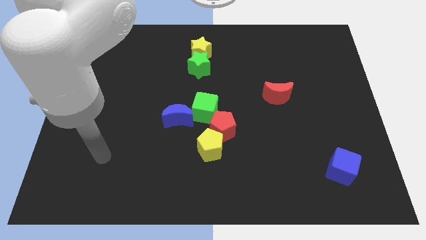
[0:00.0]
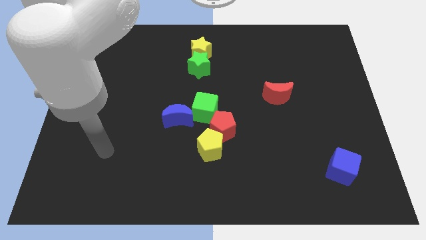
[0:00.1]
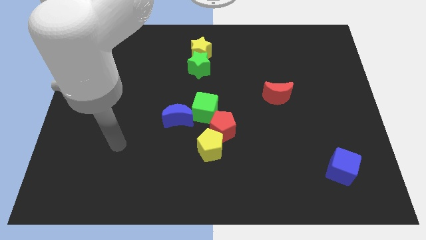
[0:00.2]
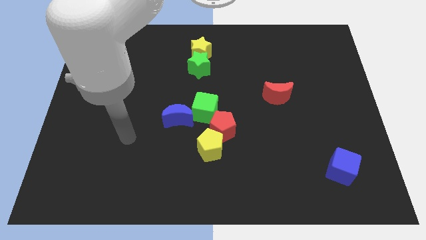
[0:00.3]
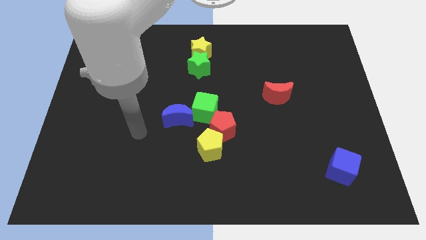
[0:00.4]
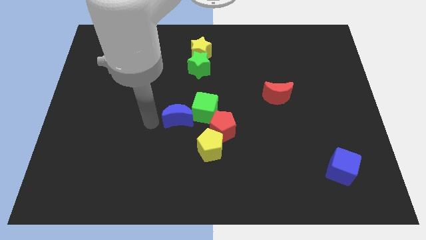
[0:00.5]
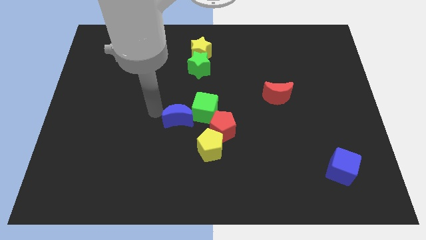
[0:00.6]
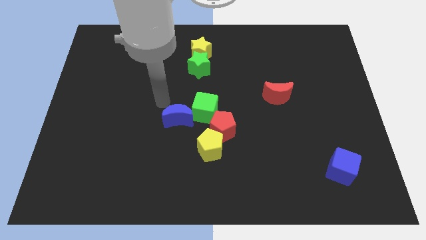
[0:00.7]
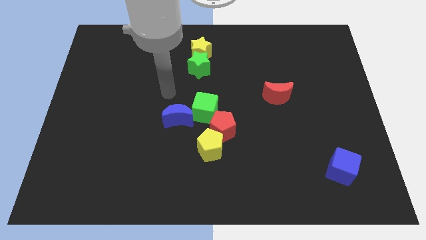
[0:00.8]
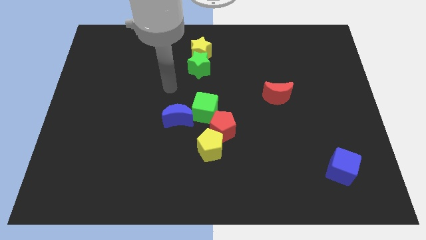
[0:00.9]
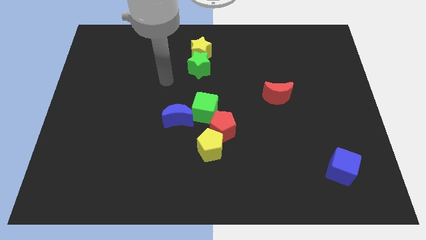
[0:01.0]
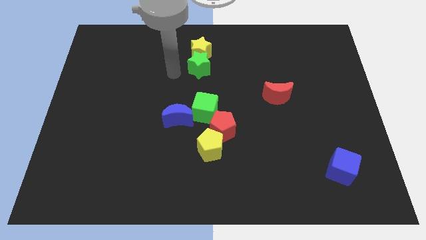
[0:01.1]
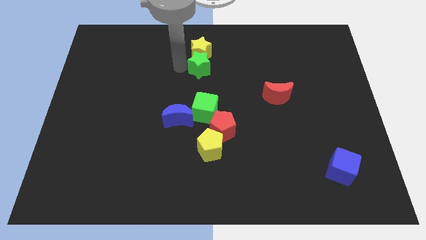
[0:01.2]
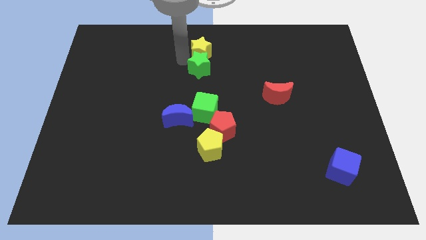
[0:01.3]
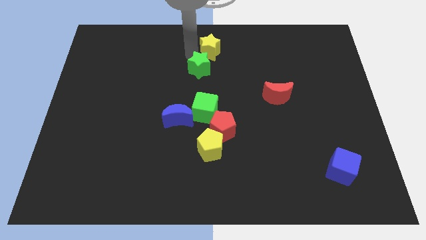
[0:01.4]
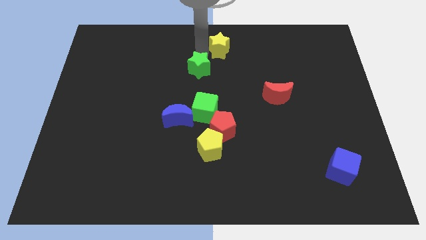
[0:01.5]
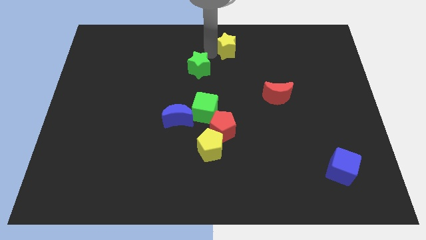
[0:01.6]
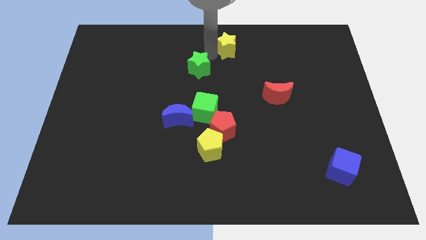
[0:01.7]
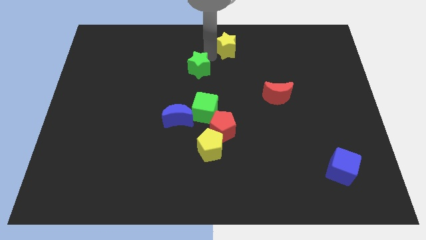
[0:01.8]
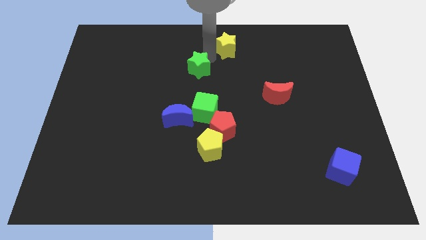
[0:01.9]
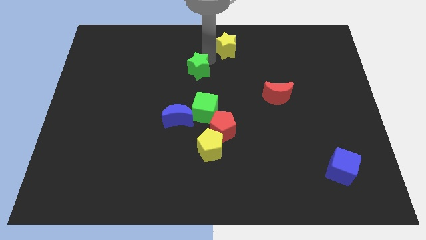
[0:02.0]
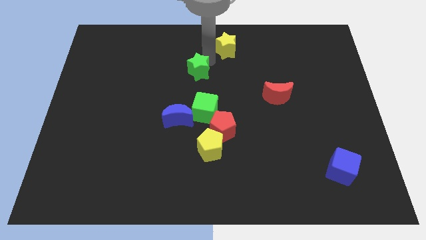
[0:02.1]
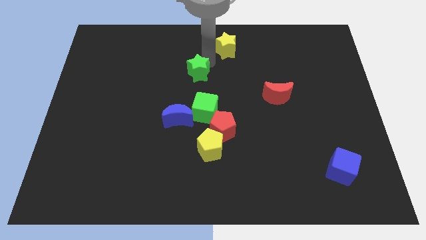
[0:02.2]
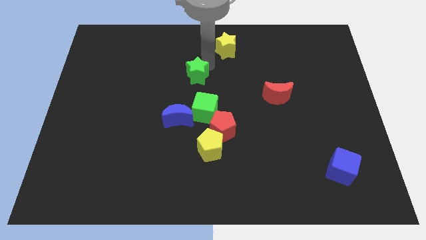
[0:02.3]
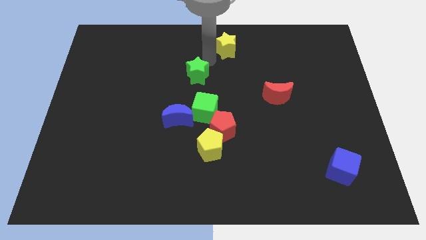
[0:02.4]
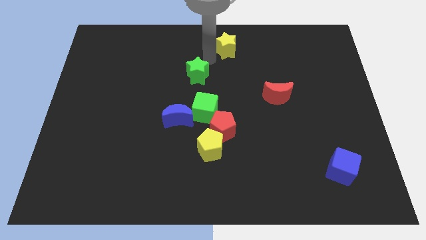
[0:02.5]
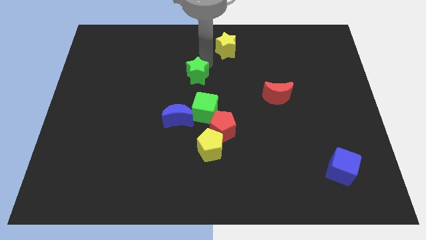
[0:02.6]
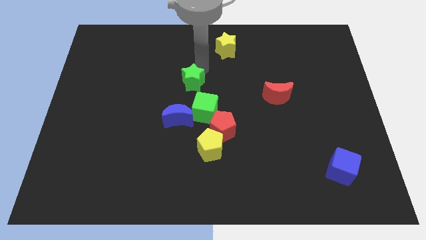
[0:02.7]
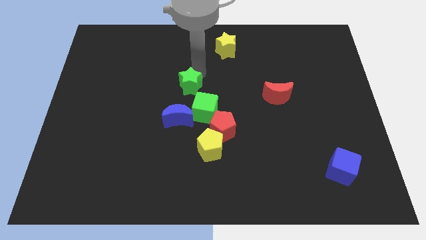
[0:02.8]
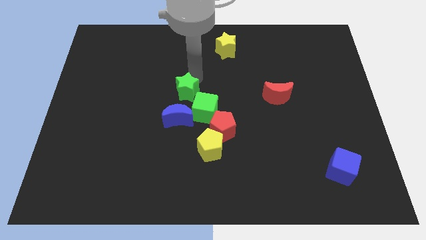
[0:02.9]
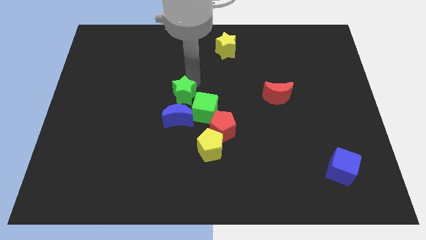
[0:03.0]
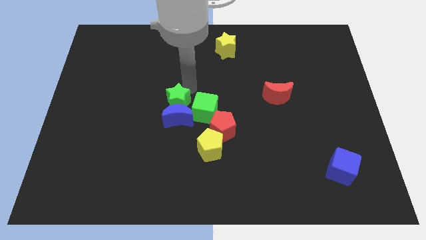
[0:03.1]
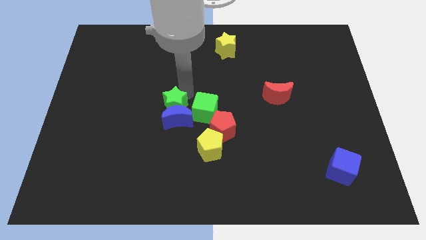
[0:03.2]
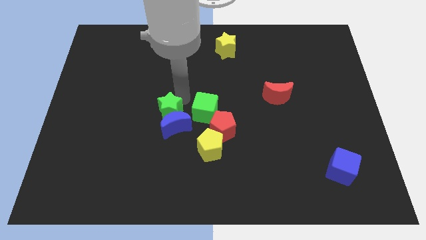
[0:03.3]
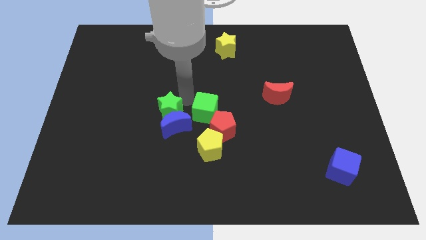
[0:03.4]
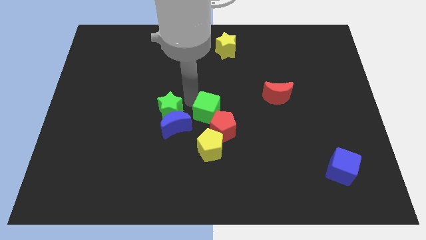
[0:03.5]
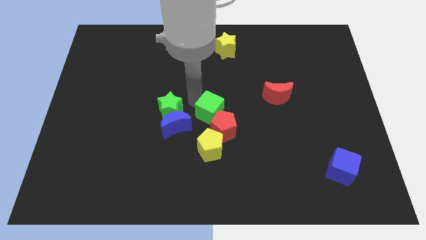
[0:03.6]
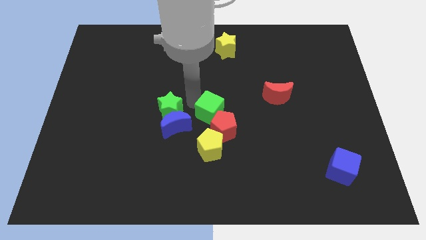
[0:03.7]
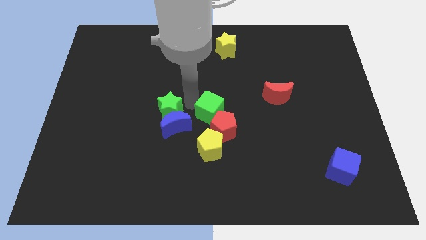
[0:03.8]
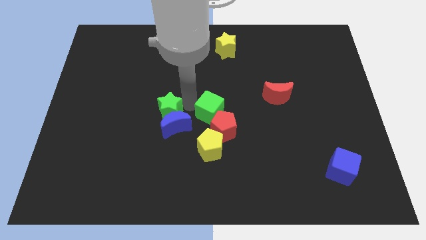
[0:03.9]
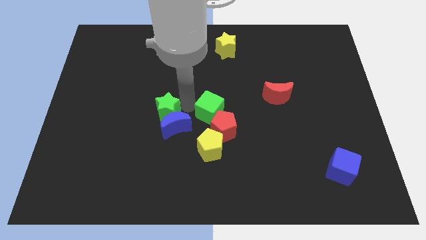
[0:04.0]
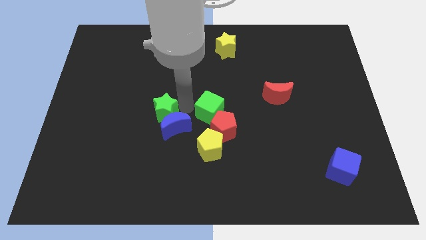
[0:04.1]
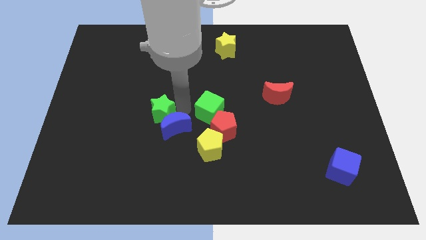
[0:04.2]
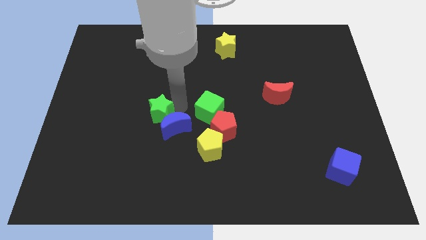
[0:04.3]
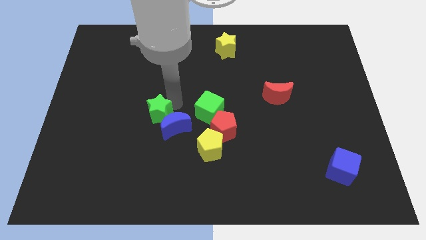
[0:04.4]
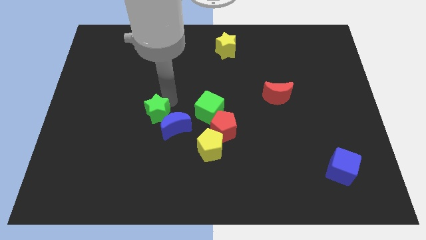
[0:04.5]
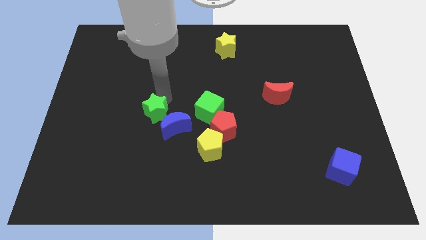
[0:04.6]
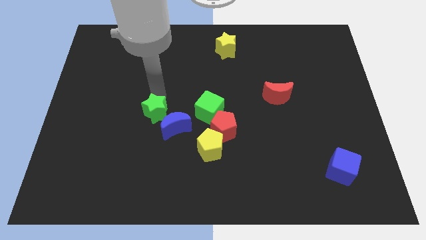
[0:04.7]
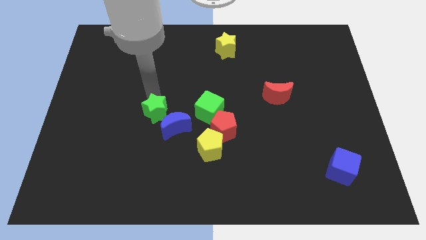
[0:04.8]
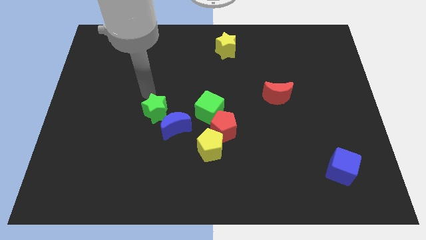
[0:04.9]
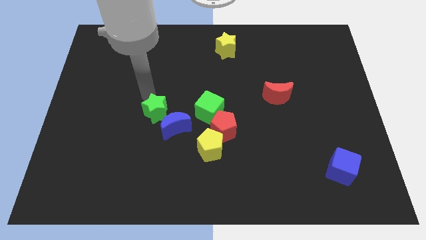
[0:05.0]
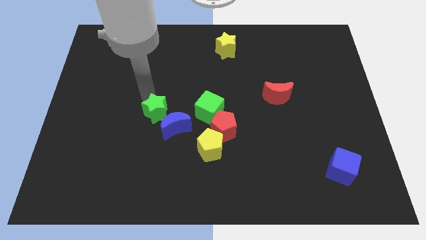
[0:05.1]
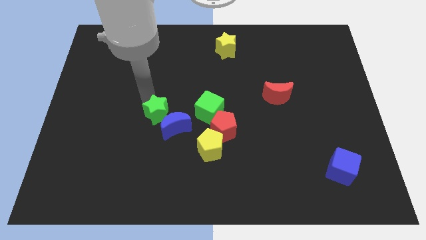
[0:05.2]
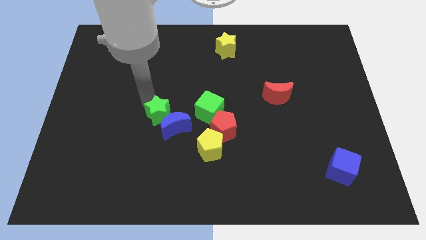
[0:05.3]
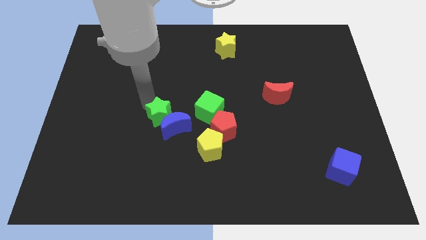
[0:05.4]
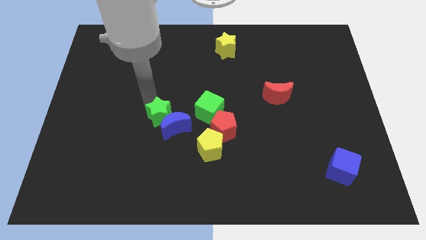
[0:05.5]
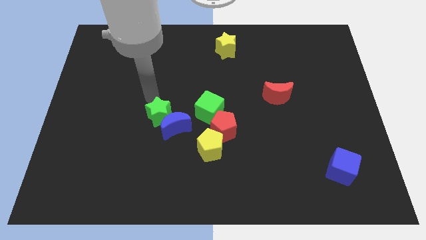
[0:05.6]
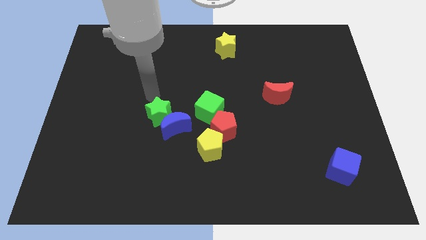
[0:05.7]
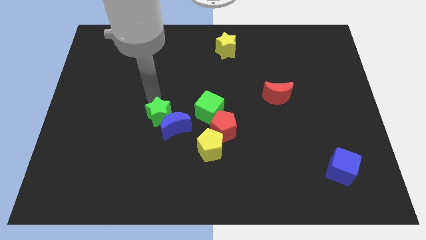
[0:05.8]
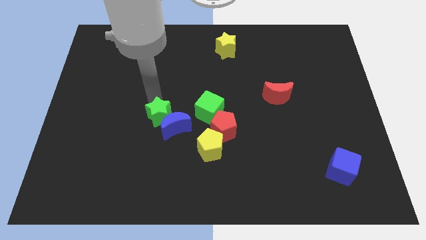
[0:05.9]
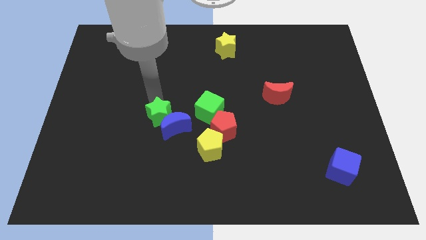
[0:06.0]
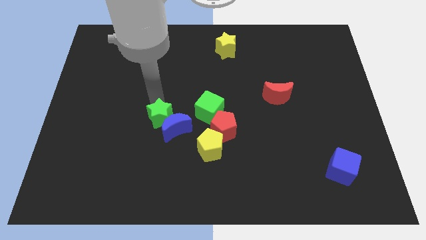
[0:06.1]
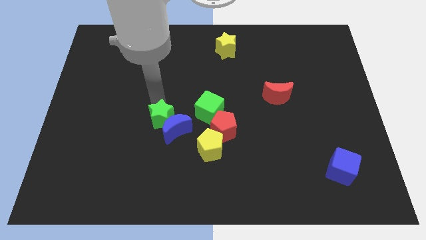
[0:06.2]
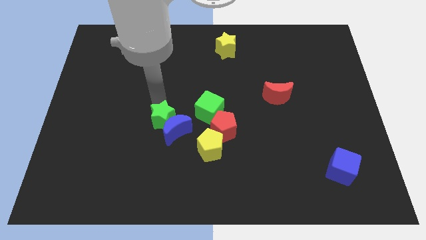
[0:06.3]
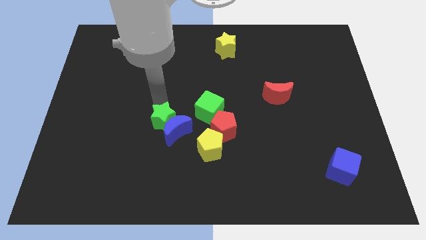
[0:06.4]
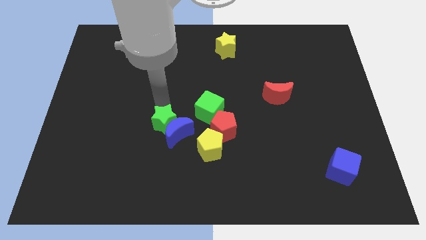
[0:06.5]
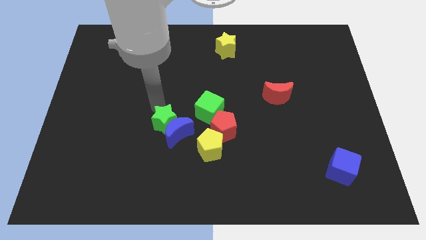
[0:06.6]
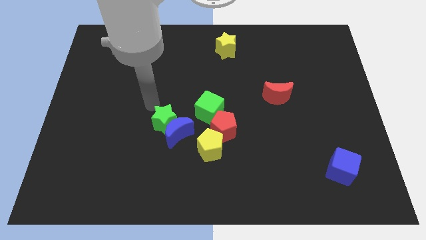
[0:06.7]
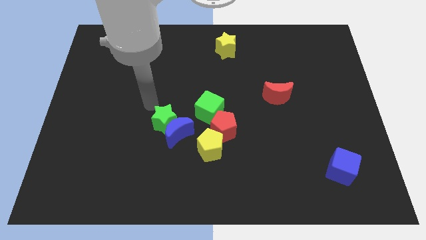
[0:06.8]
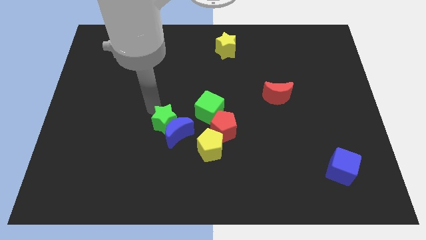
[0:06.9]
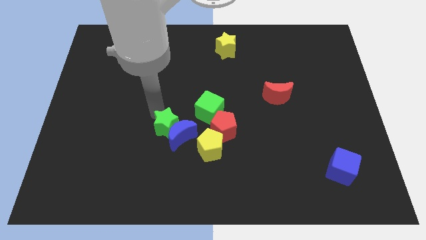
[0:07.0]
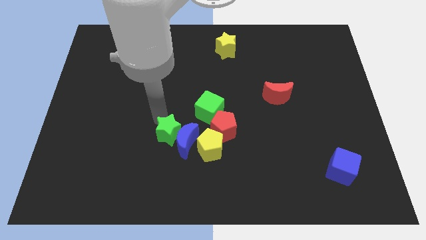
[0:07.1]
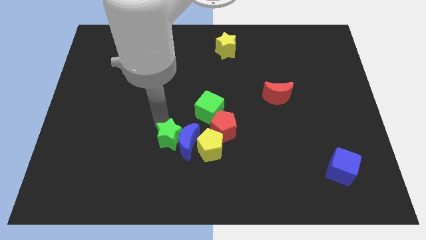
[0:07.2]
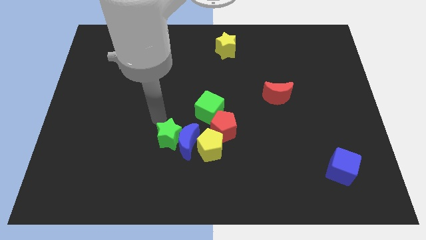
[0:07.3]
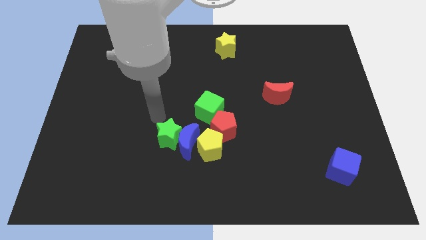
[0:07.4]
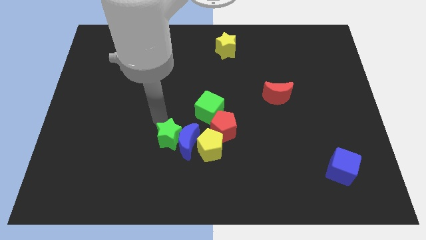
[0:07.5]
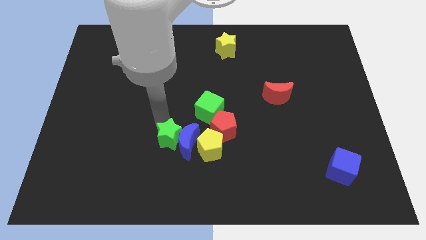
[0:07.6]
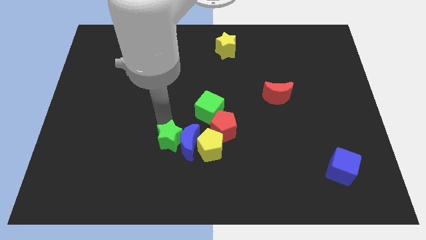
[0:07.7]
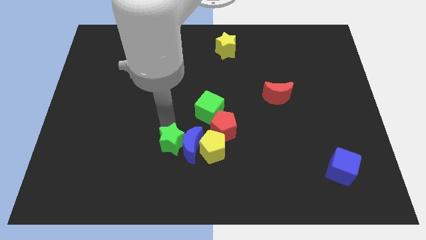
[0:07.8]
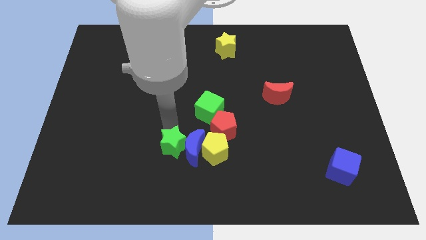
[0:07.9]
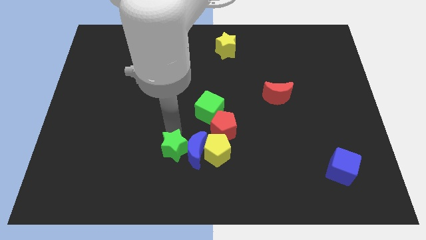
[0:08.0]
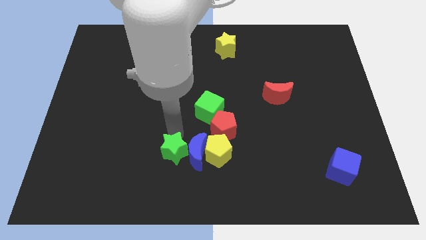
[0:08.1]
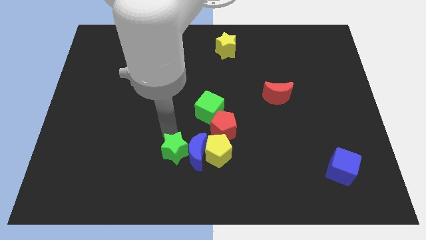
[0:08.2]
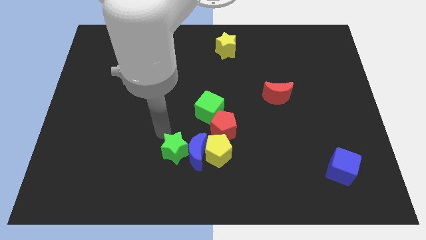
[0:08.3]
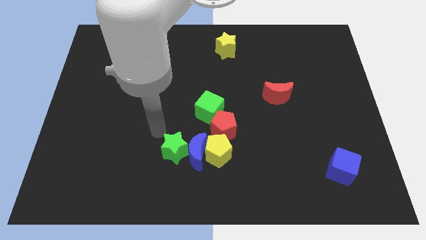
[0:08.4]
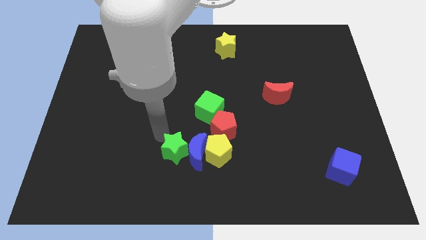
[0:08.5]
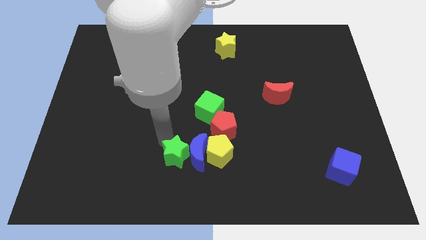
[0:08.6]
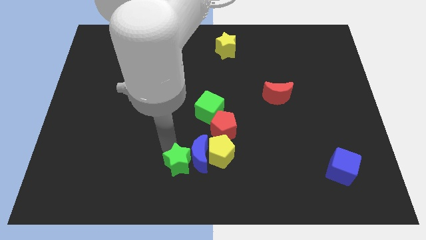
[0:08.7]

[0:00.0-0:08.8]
move the green star to the bottom left of the yellow pentagon
